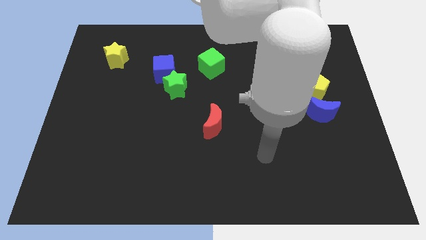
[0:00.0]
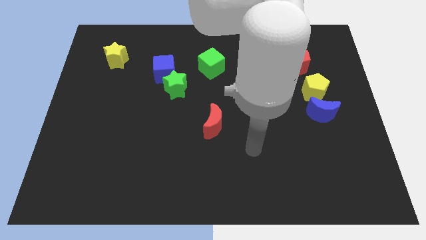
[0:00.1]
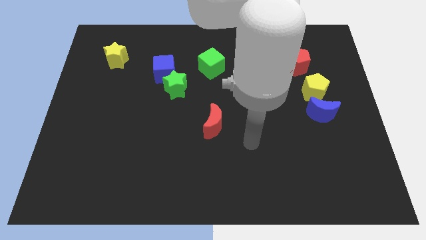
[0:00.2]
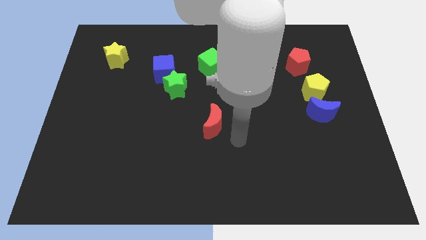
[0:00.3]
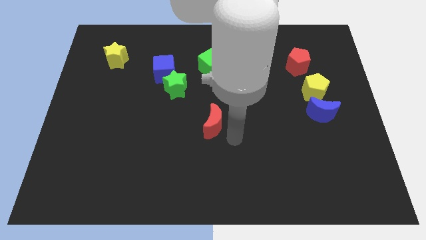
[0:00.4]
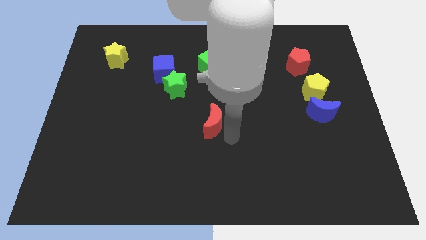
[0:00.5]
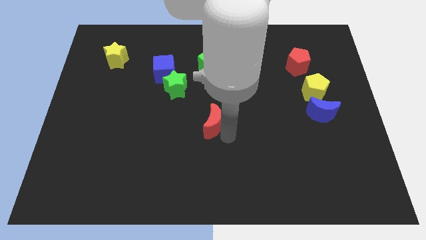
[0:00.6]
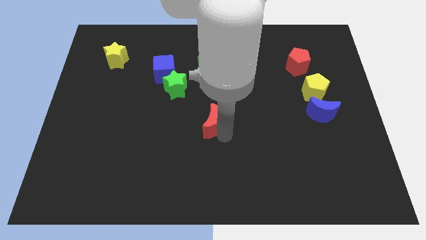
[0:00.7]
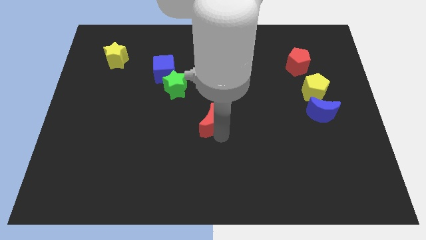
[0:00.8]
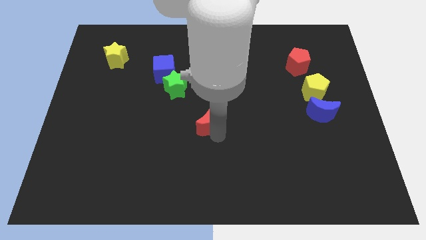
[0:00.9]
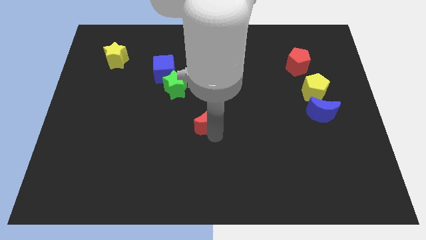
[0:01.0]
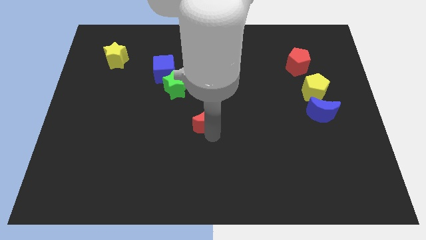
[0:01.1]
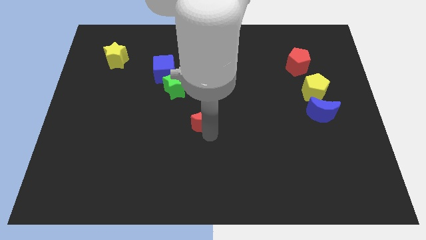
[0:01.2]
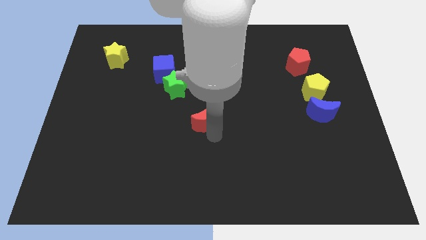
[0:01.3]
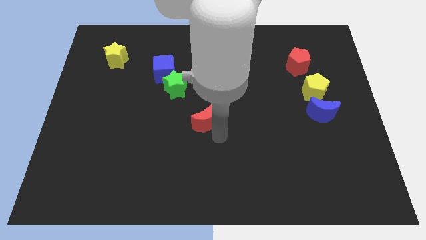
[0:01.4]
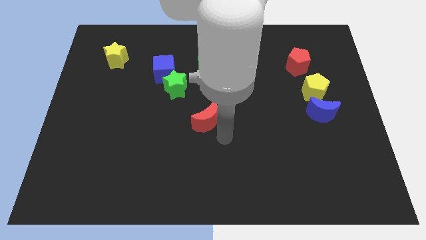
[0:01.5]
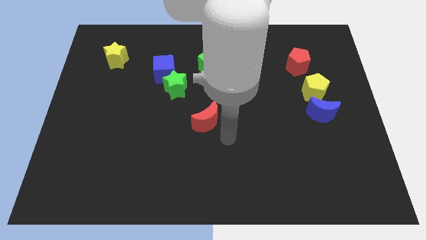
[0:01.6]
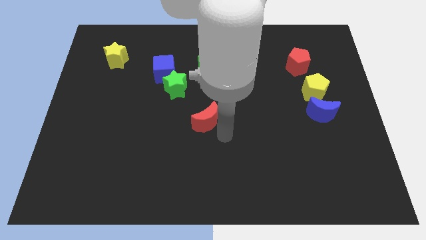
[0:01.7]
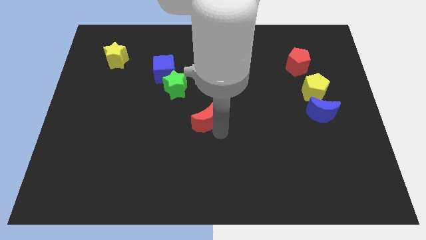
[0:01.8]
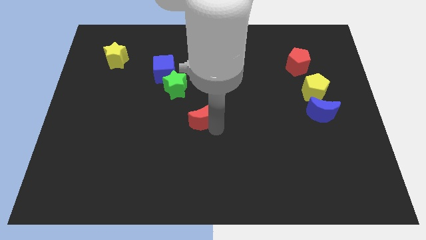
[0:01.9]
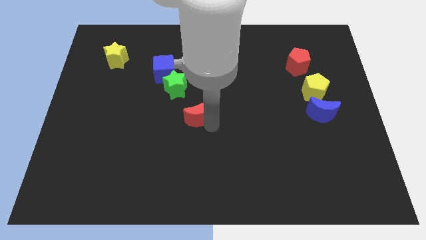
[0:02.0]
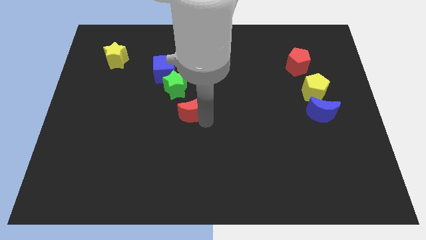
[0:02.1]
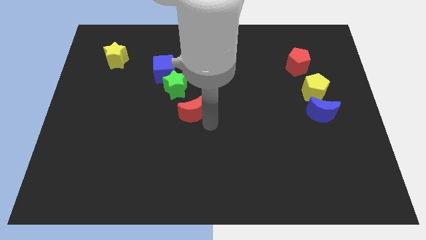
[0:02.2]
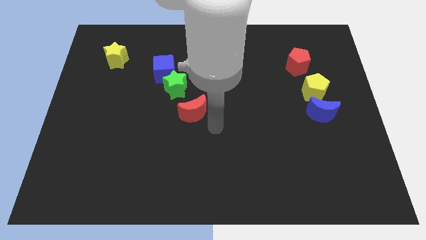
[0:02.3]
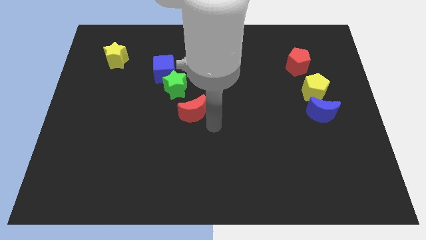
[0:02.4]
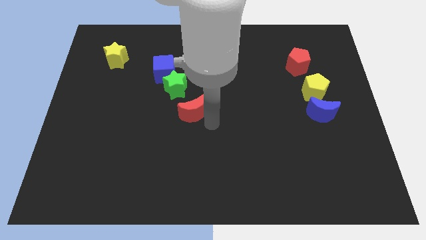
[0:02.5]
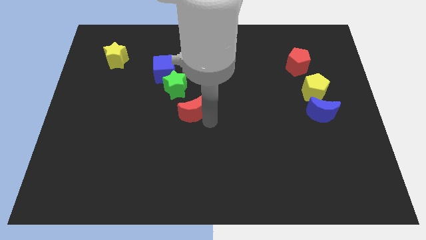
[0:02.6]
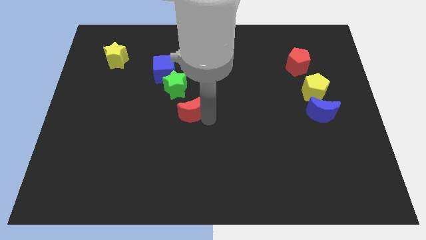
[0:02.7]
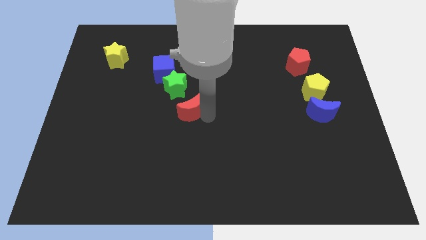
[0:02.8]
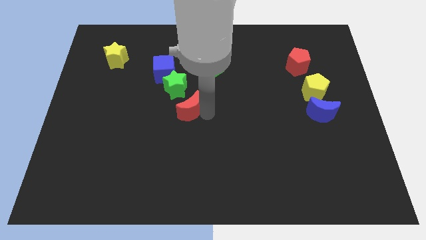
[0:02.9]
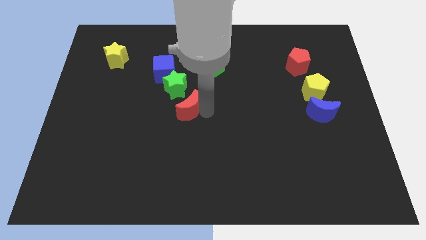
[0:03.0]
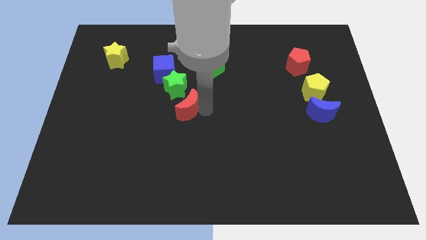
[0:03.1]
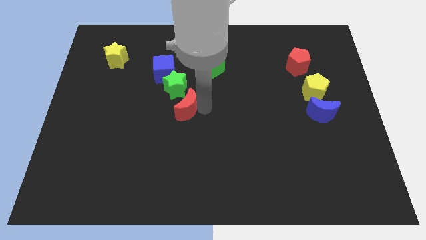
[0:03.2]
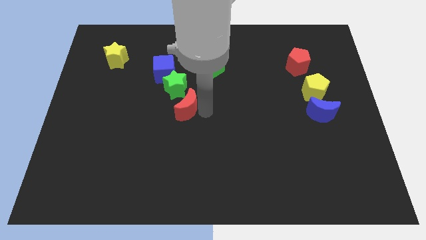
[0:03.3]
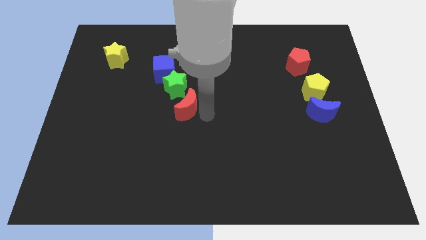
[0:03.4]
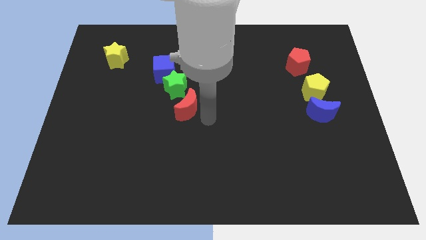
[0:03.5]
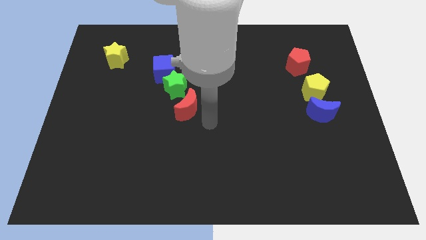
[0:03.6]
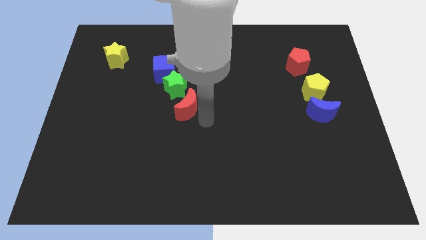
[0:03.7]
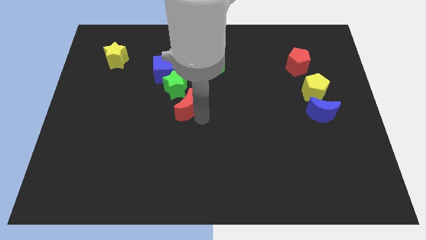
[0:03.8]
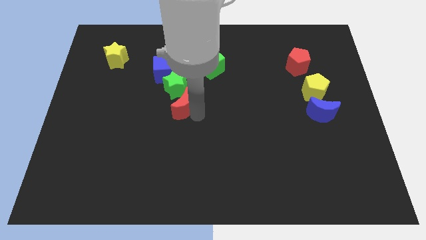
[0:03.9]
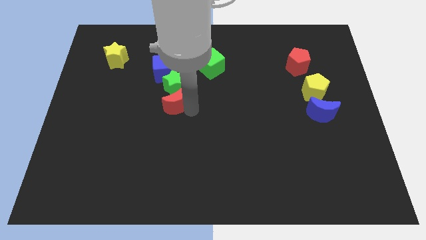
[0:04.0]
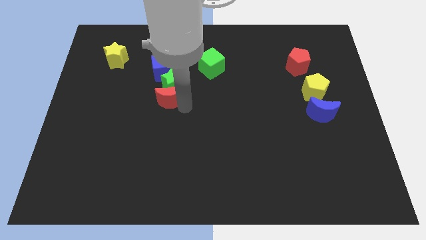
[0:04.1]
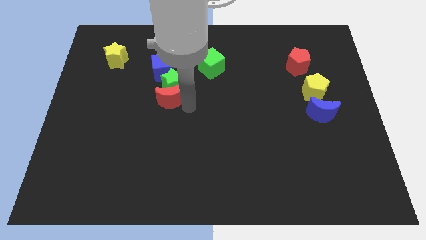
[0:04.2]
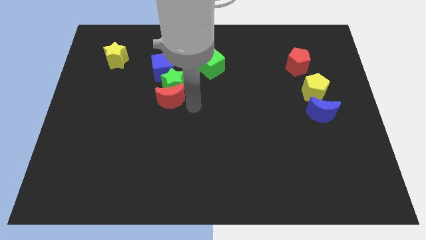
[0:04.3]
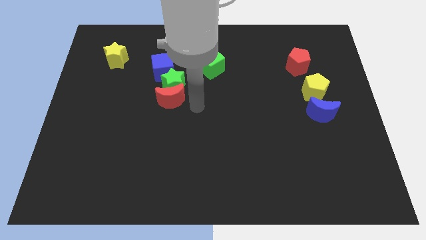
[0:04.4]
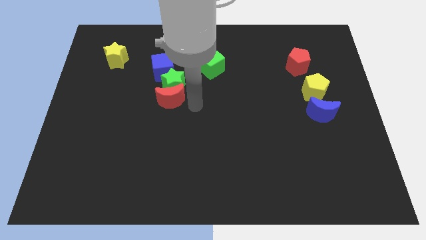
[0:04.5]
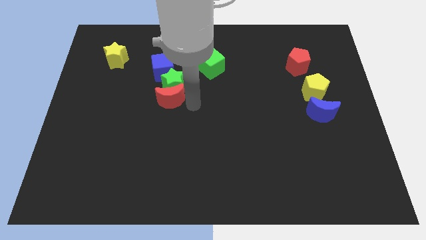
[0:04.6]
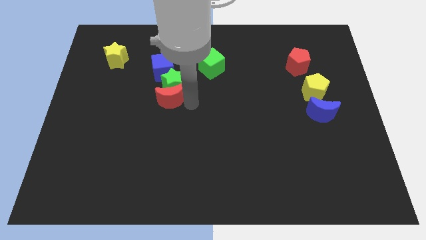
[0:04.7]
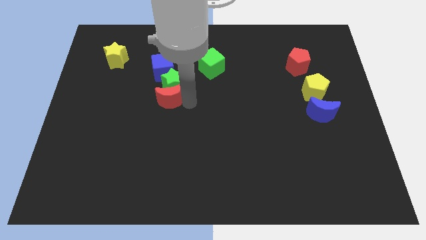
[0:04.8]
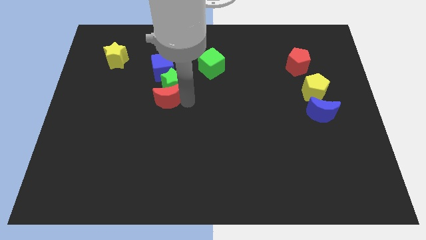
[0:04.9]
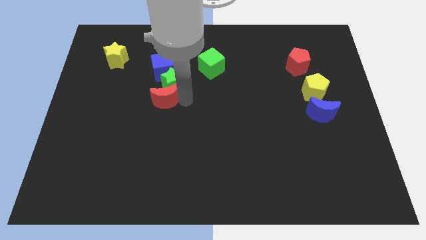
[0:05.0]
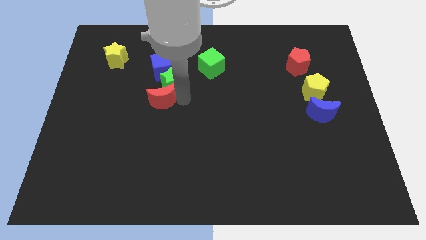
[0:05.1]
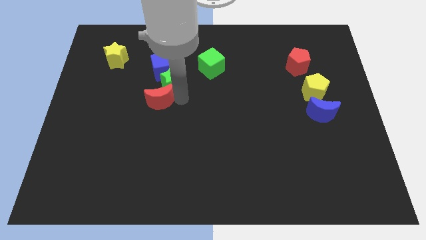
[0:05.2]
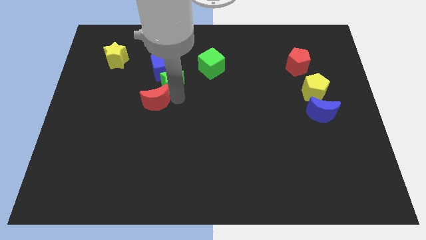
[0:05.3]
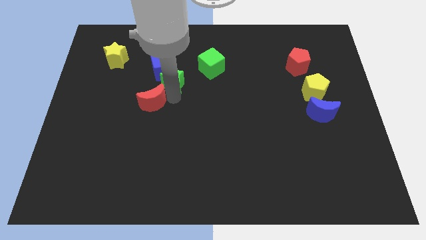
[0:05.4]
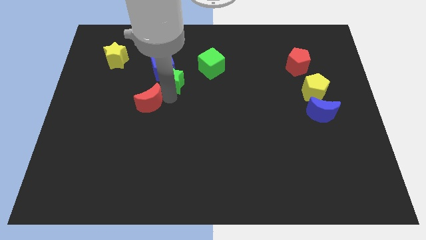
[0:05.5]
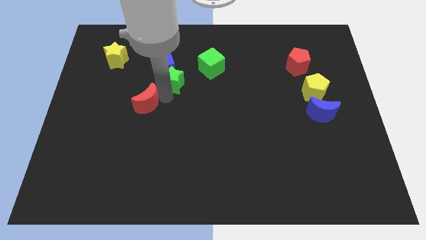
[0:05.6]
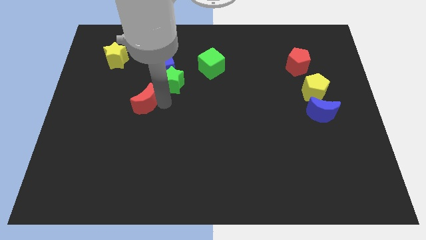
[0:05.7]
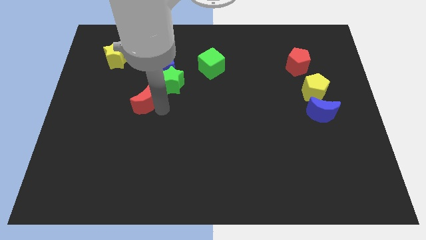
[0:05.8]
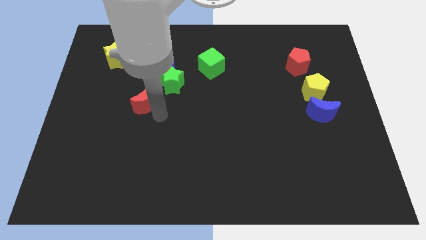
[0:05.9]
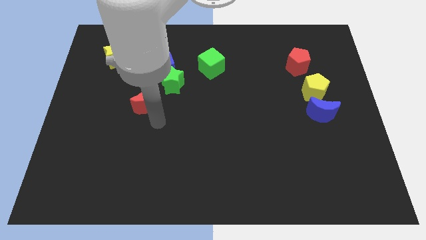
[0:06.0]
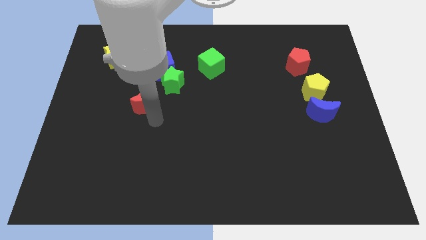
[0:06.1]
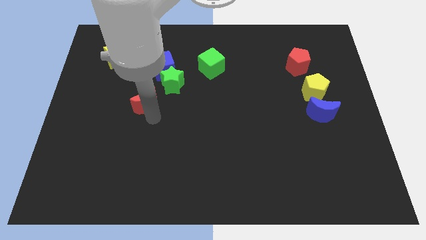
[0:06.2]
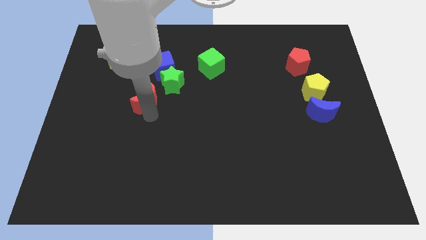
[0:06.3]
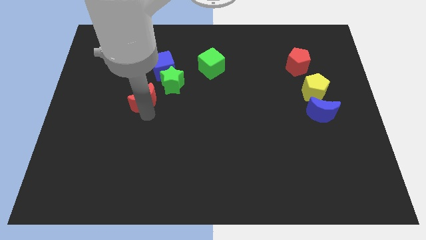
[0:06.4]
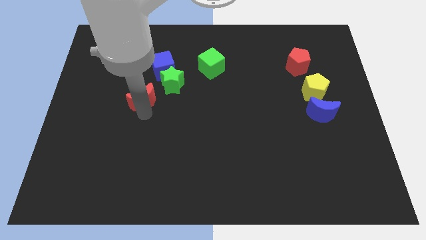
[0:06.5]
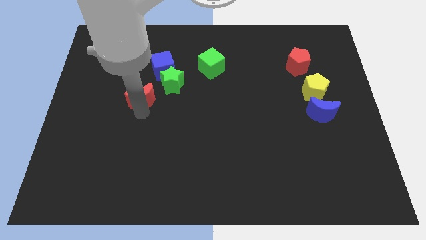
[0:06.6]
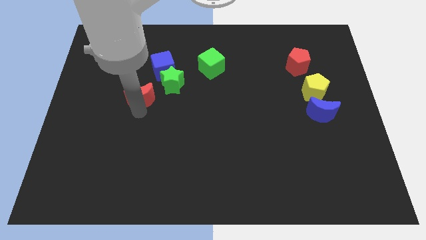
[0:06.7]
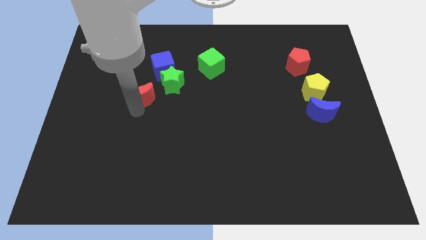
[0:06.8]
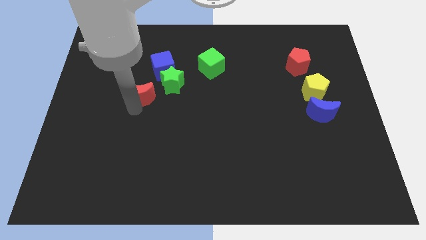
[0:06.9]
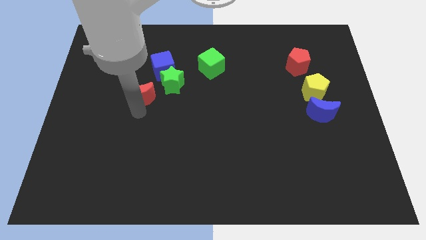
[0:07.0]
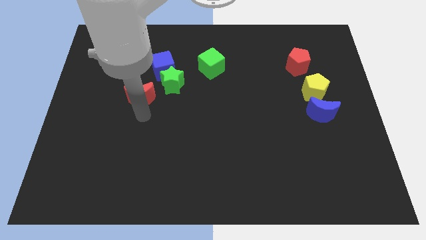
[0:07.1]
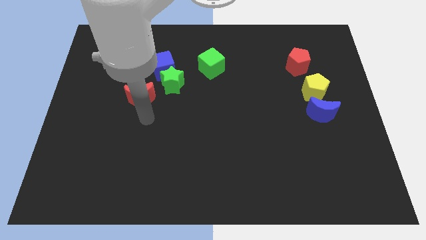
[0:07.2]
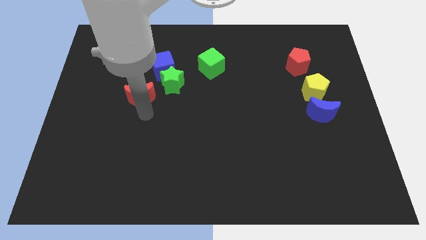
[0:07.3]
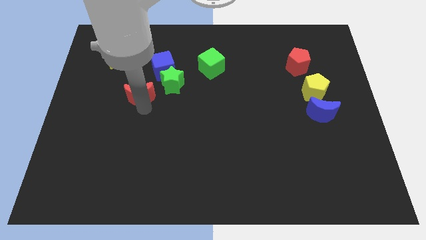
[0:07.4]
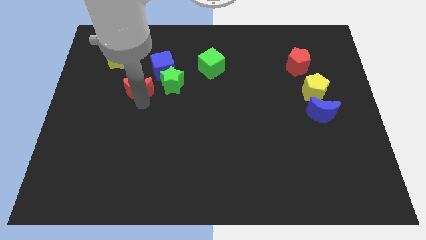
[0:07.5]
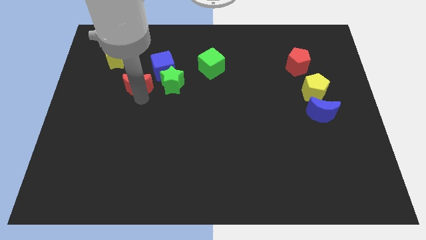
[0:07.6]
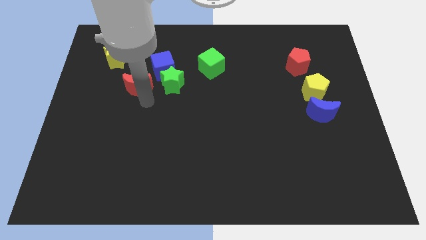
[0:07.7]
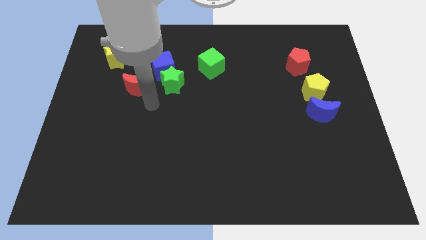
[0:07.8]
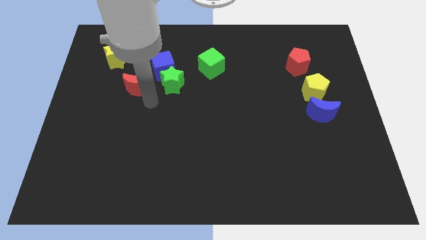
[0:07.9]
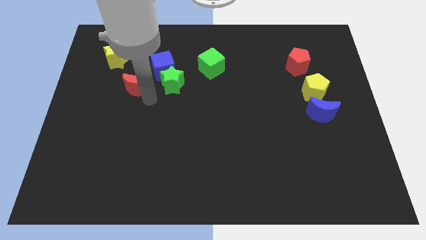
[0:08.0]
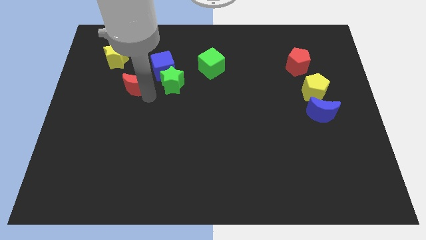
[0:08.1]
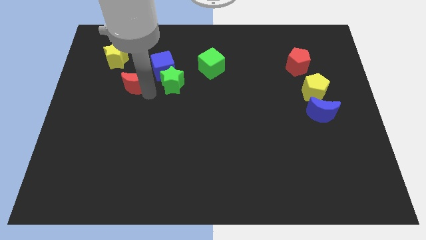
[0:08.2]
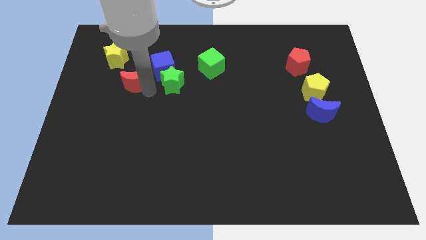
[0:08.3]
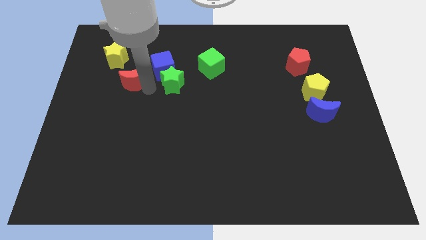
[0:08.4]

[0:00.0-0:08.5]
push the red moon to the left side of the blue cube
